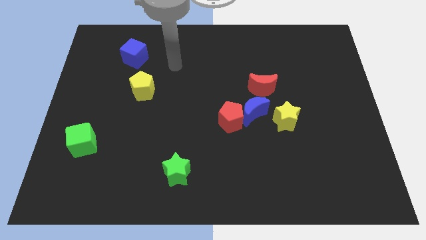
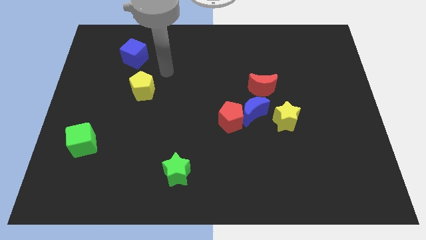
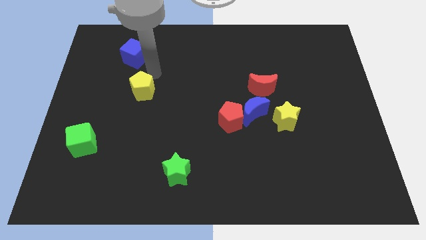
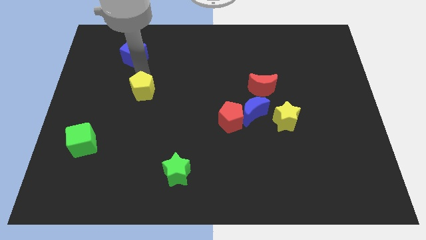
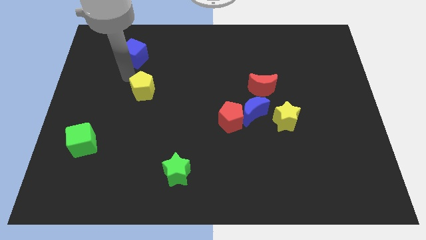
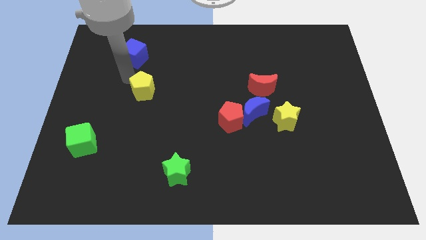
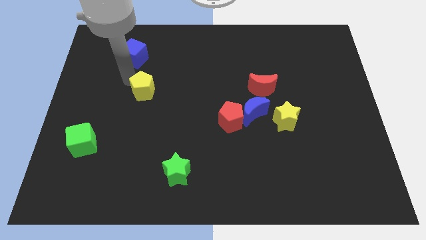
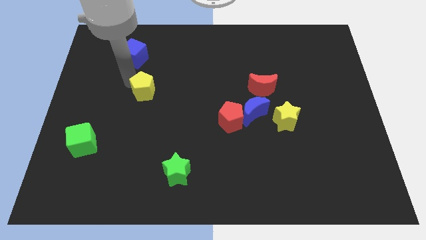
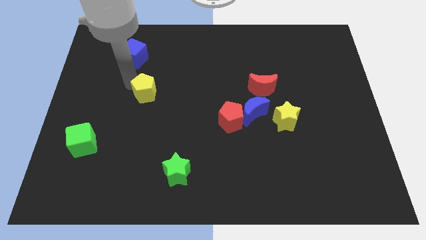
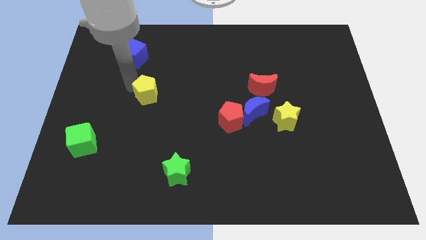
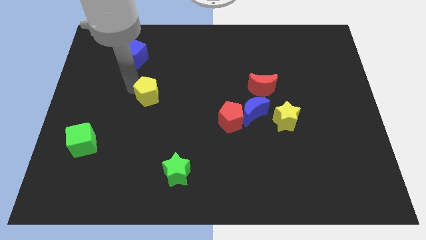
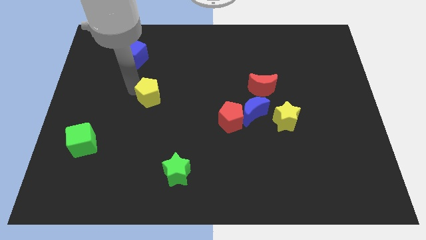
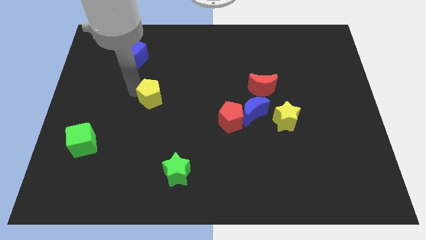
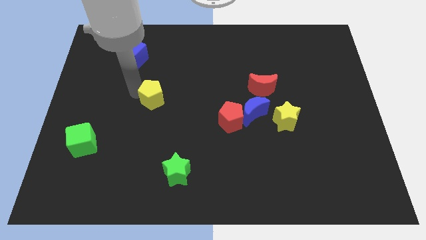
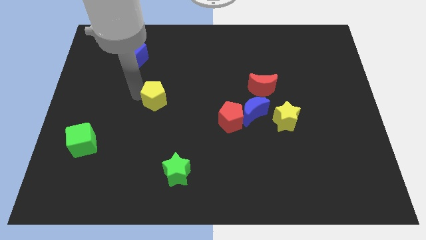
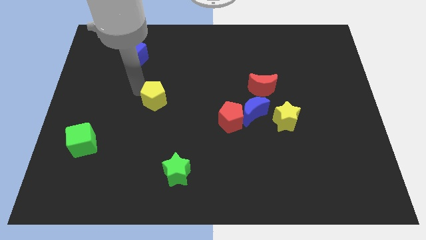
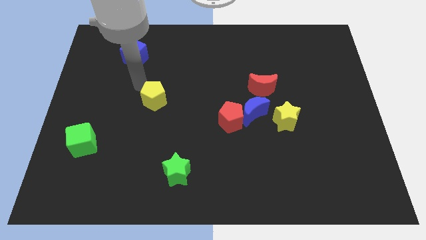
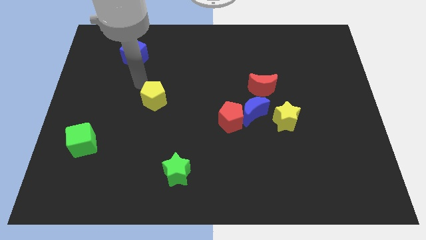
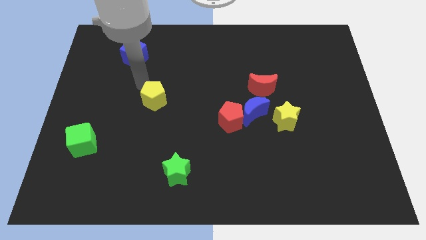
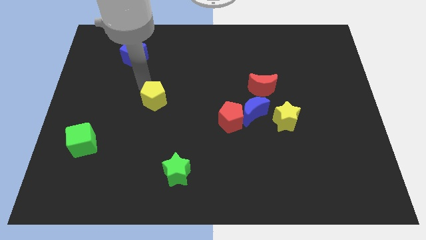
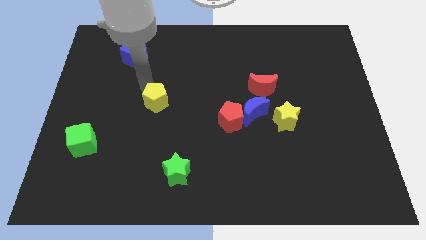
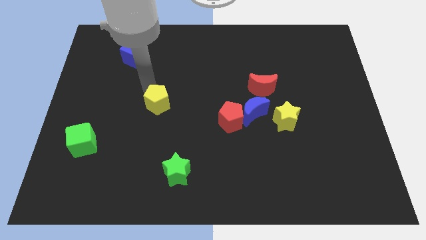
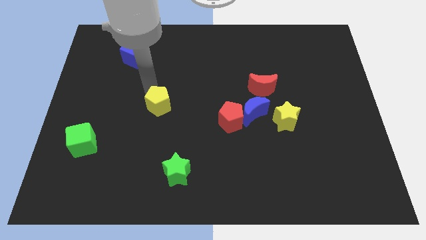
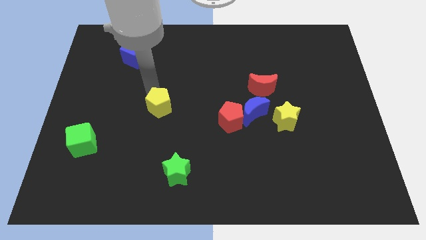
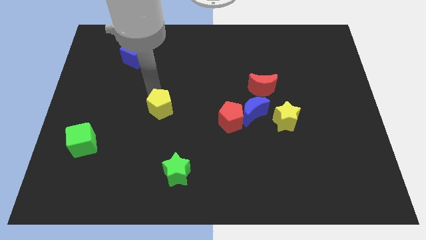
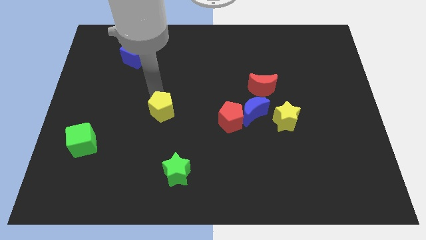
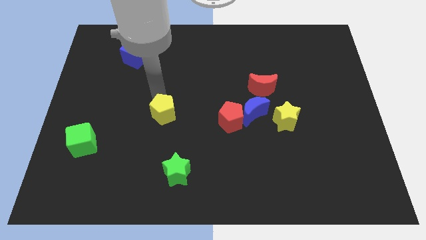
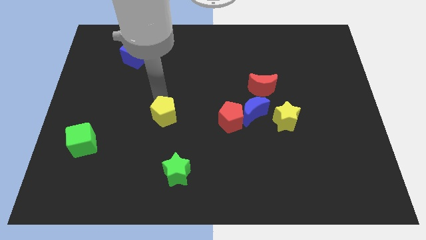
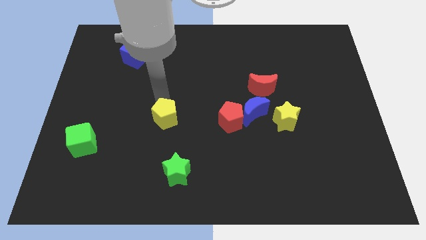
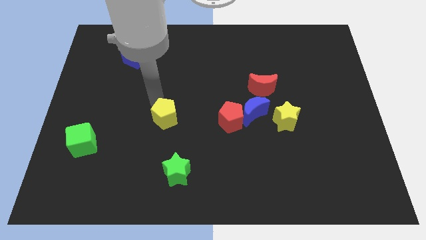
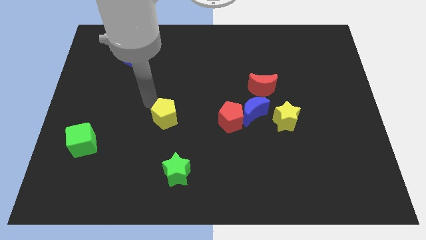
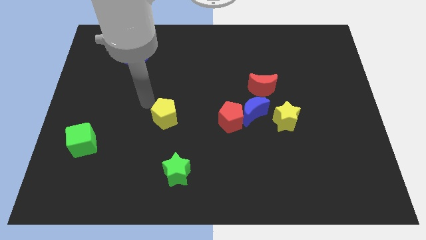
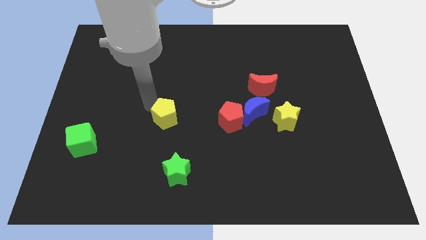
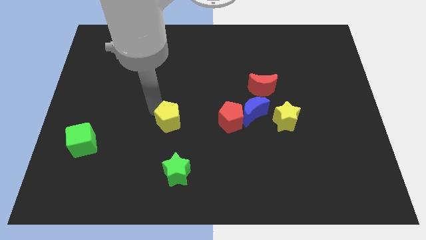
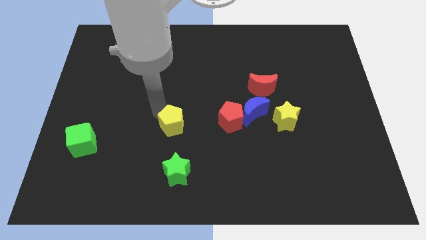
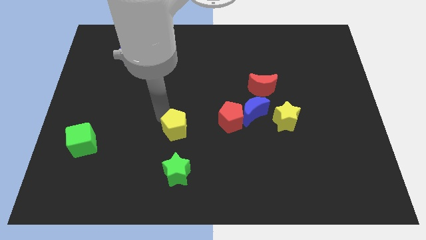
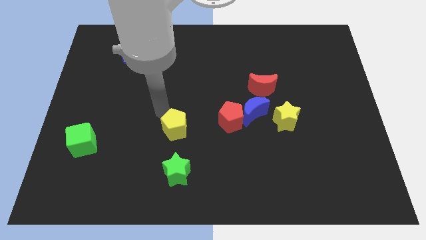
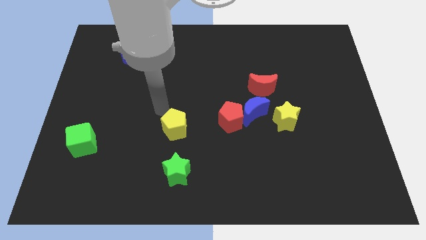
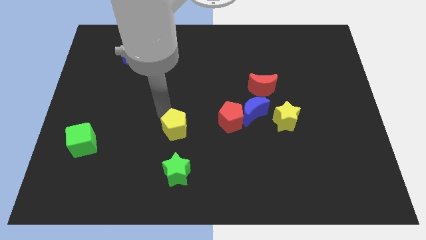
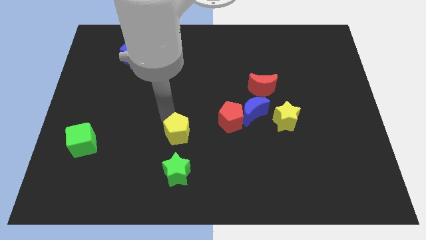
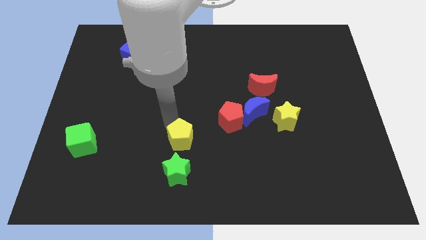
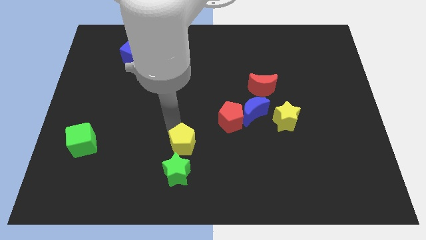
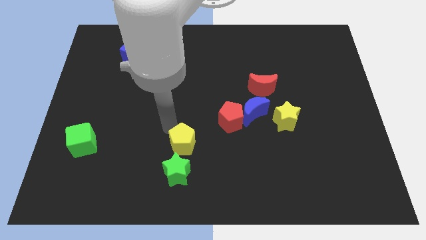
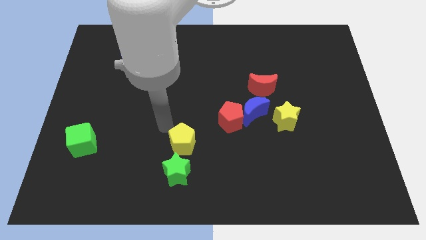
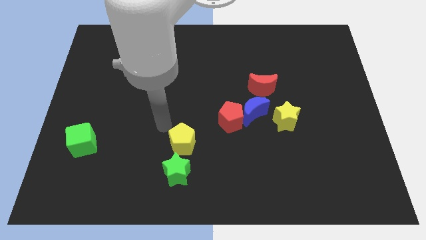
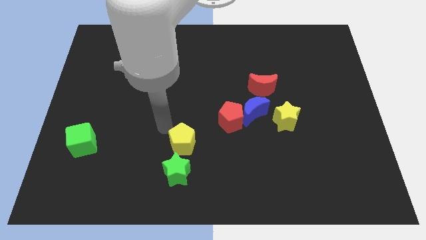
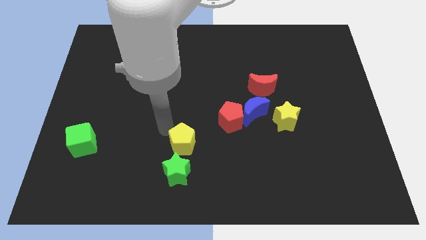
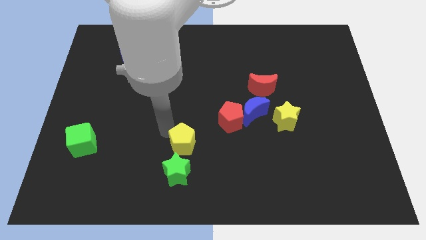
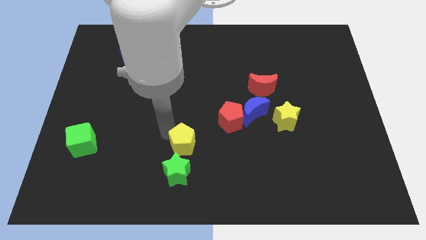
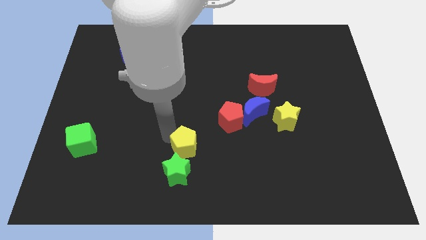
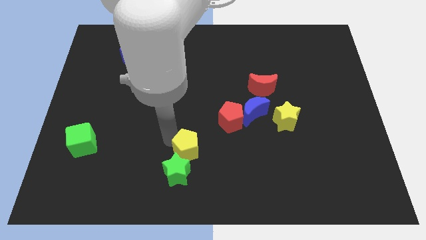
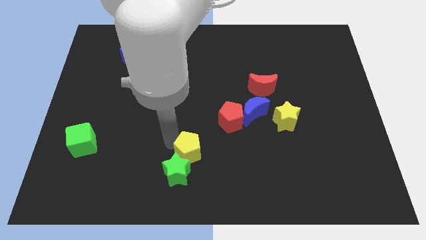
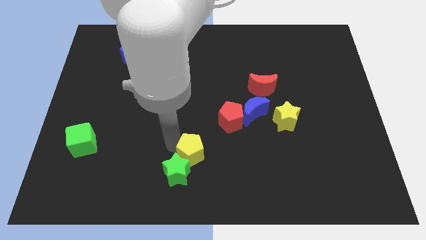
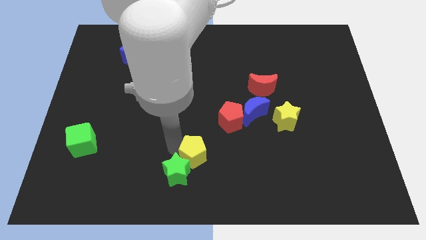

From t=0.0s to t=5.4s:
push the yellow pentagon to the bottom side

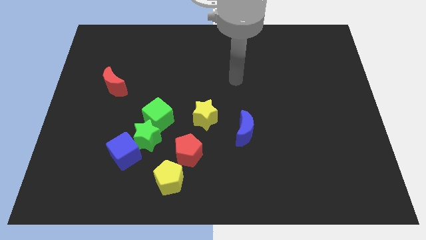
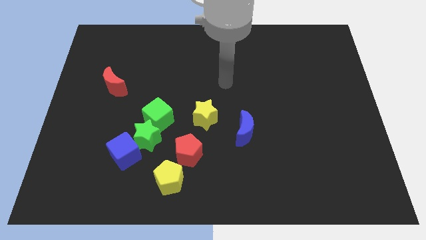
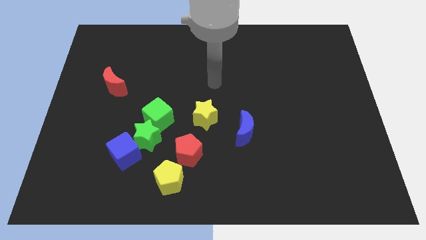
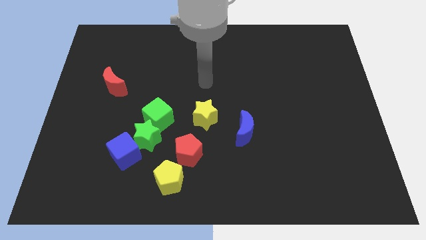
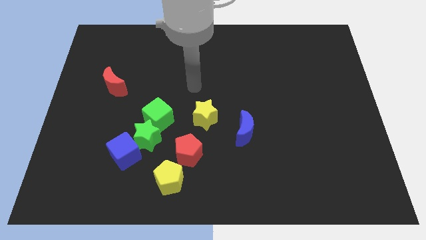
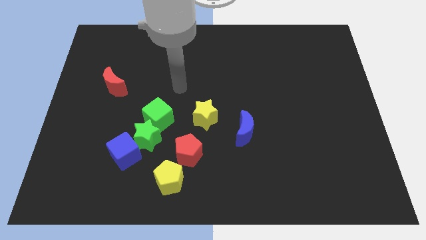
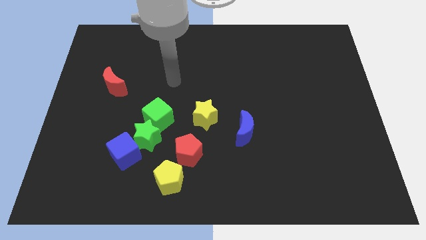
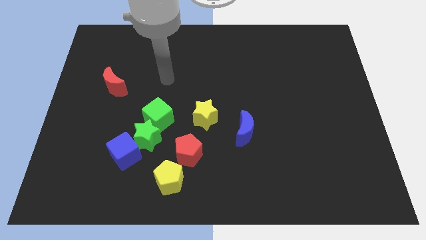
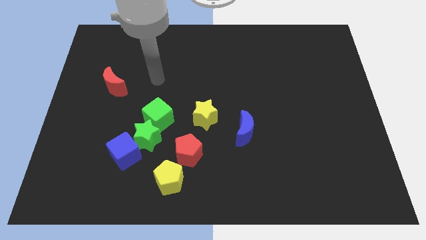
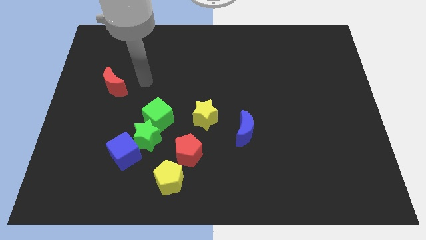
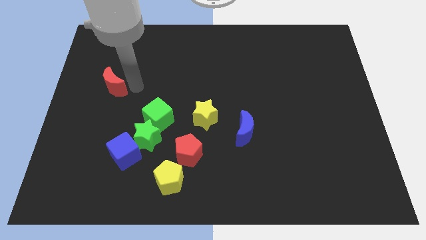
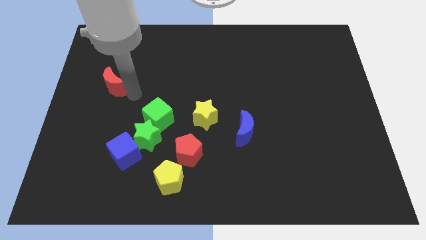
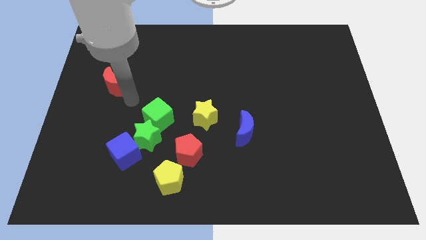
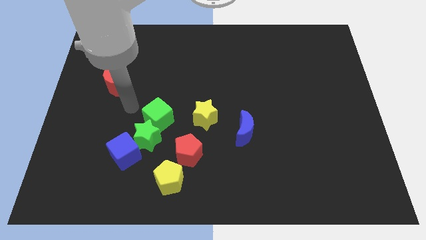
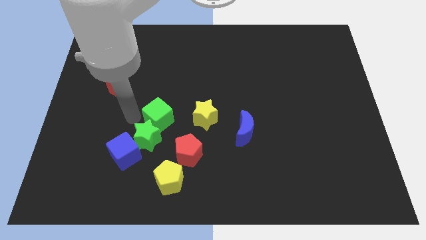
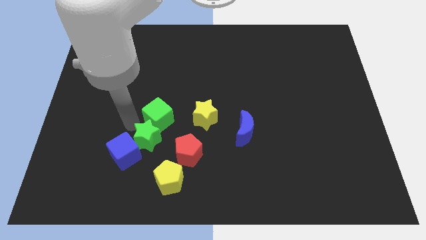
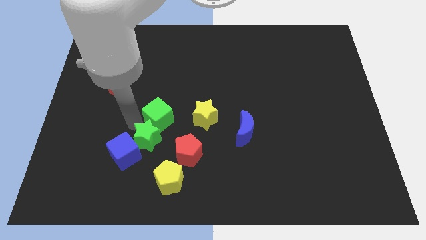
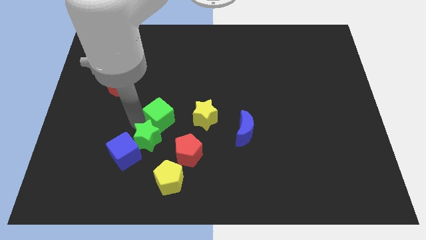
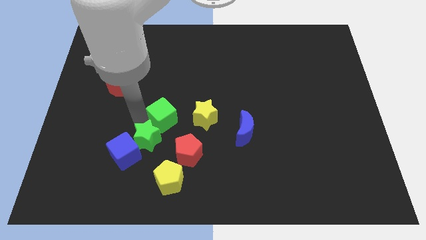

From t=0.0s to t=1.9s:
move the green cube to the center of the board
